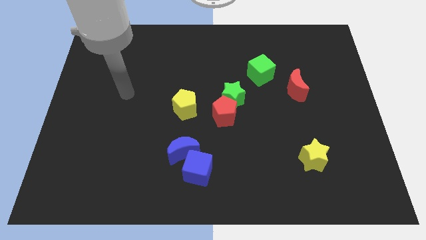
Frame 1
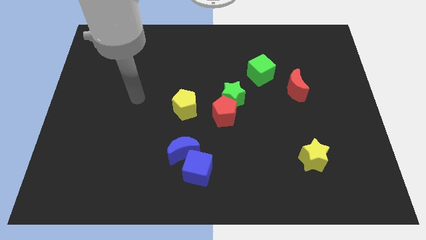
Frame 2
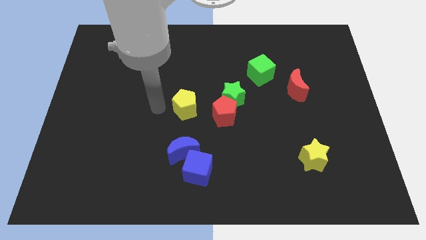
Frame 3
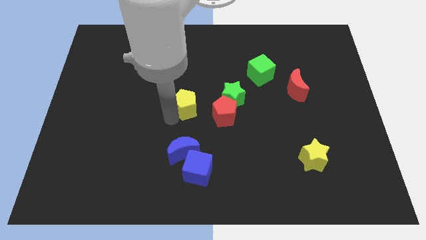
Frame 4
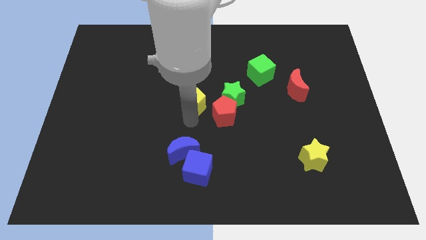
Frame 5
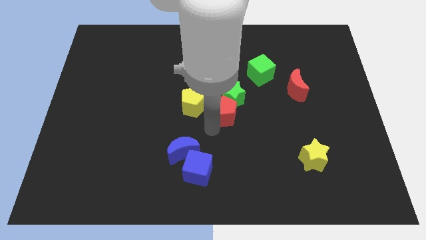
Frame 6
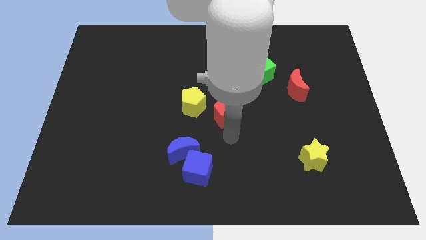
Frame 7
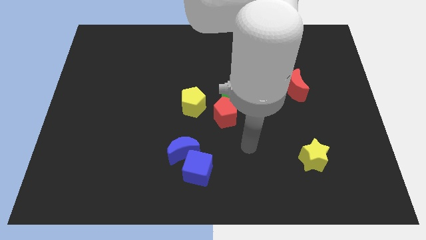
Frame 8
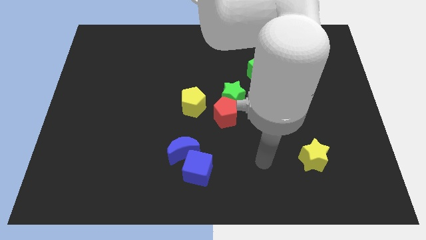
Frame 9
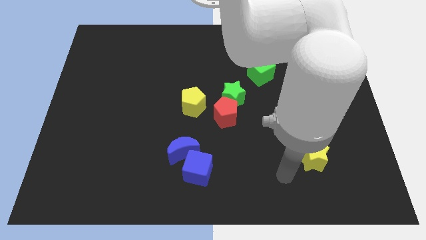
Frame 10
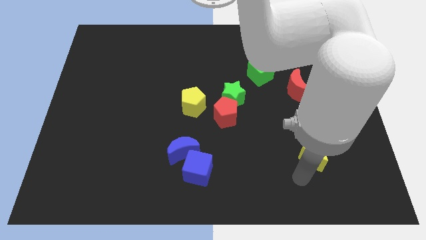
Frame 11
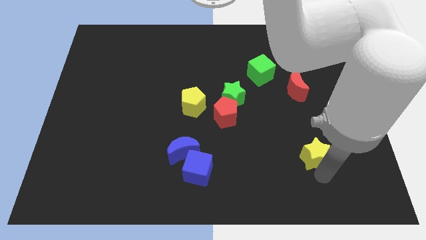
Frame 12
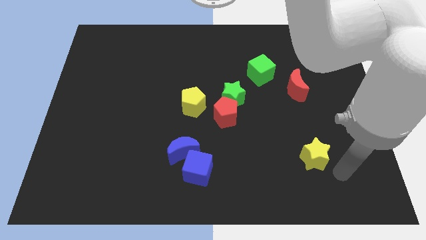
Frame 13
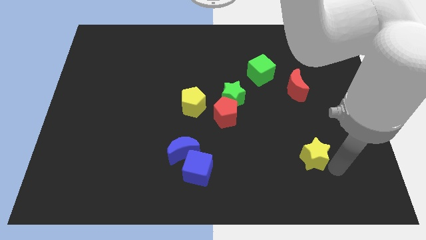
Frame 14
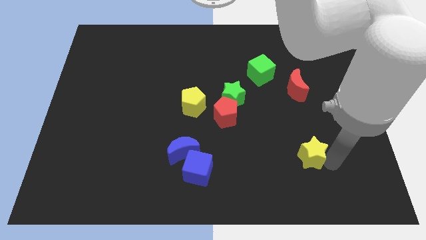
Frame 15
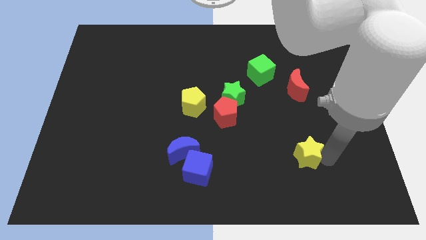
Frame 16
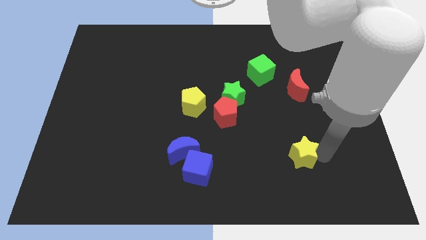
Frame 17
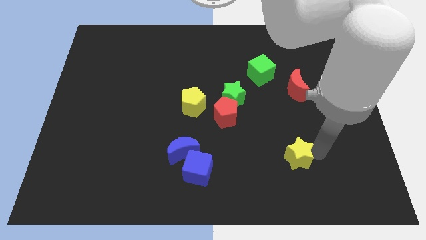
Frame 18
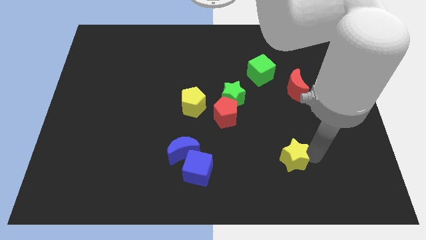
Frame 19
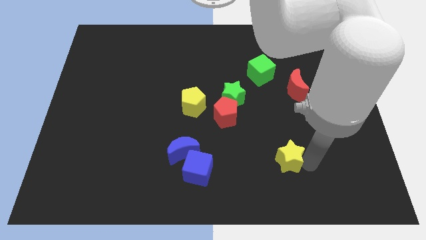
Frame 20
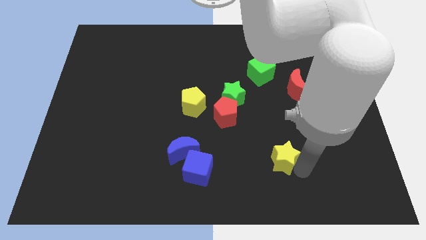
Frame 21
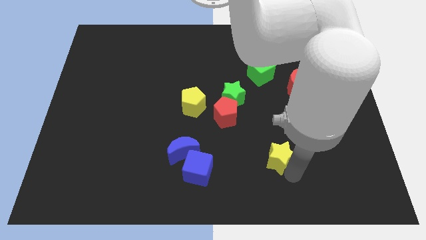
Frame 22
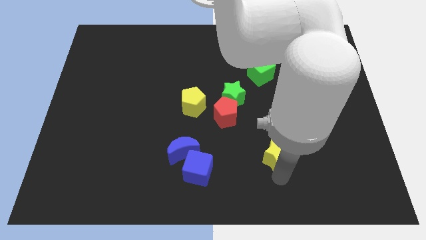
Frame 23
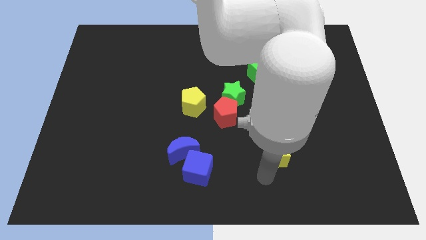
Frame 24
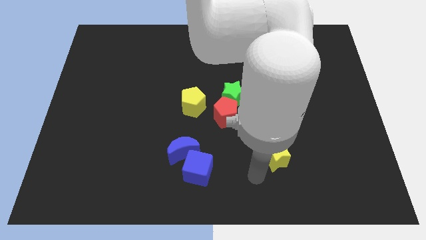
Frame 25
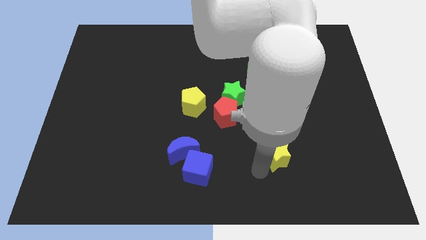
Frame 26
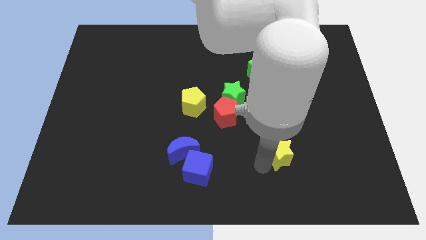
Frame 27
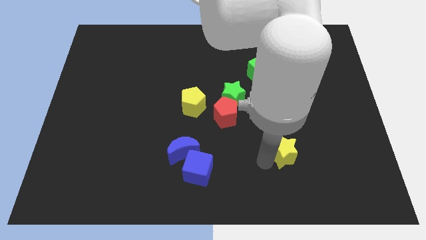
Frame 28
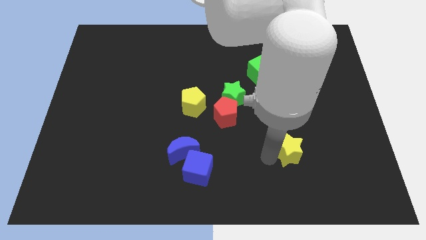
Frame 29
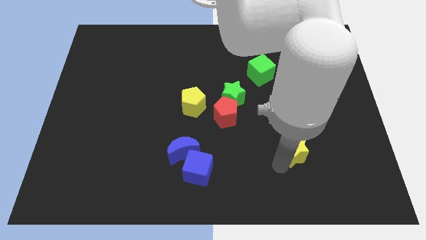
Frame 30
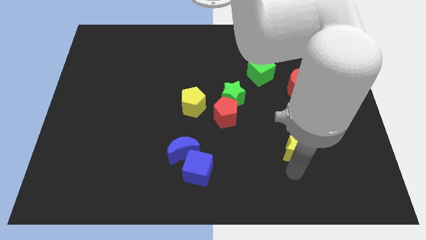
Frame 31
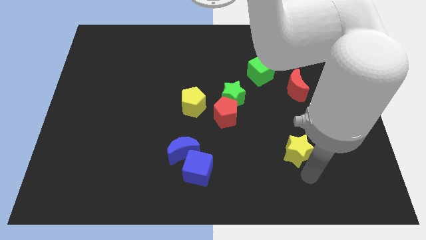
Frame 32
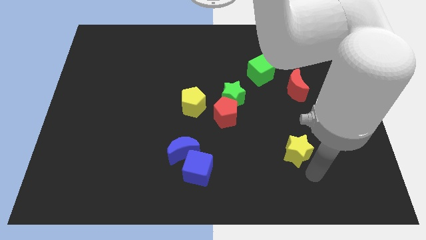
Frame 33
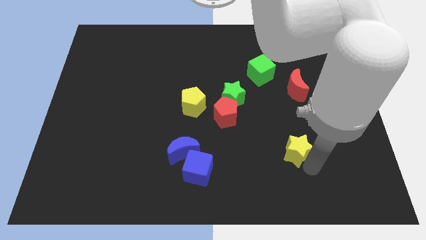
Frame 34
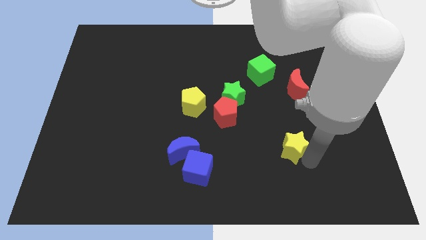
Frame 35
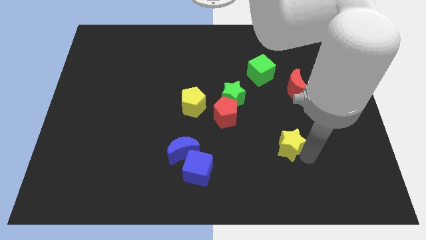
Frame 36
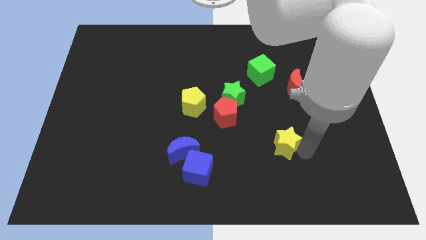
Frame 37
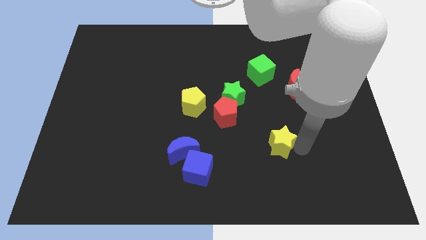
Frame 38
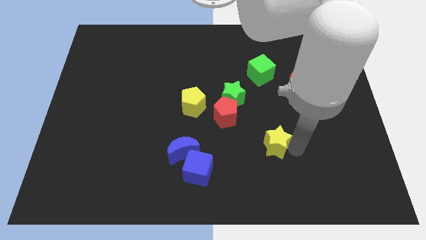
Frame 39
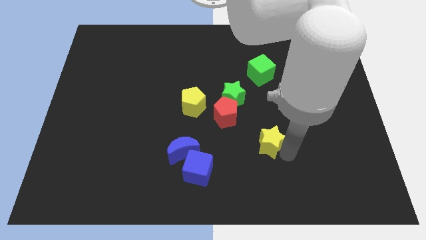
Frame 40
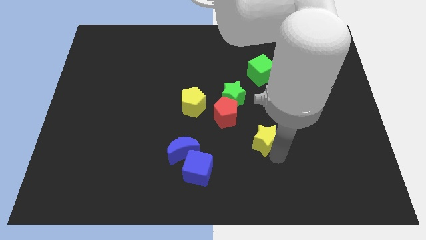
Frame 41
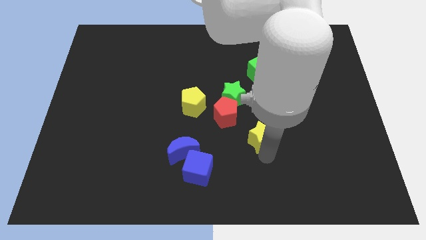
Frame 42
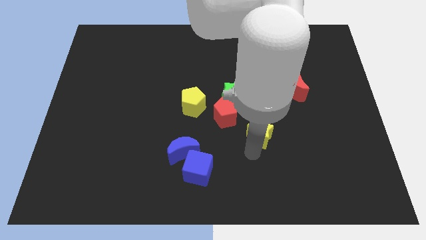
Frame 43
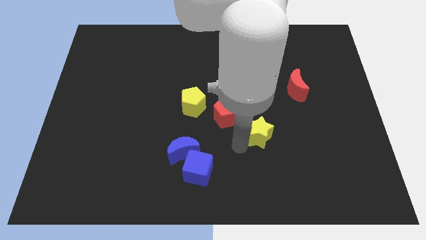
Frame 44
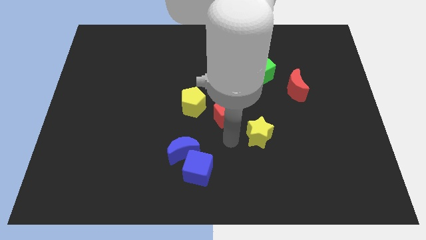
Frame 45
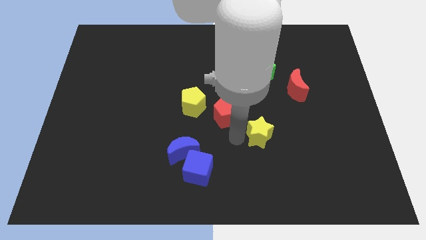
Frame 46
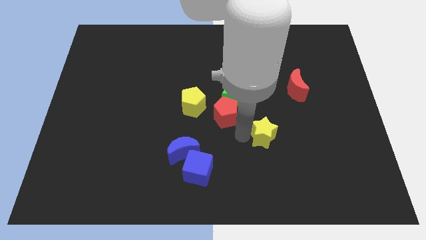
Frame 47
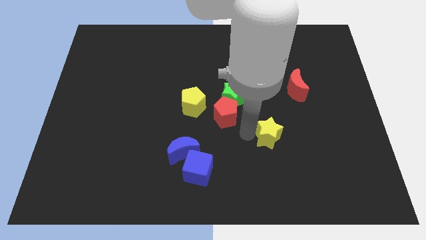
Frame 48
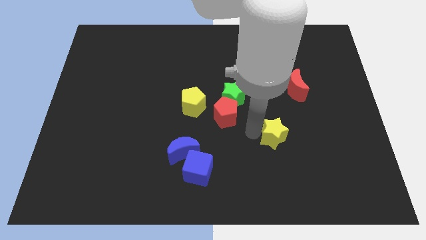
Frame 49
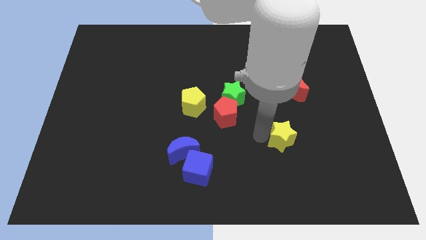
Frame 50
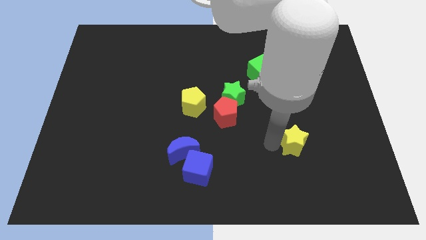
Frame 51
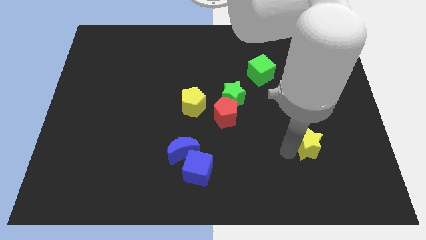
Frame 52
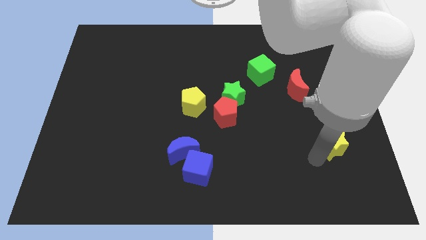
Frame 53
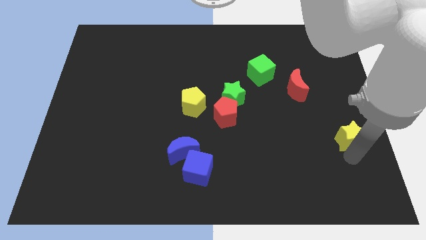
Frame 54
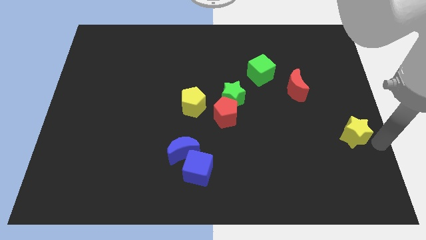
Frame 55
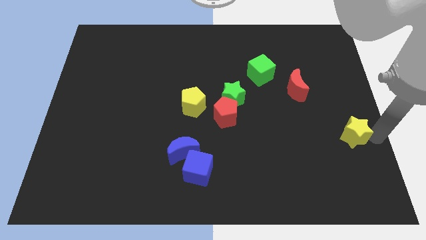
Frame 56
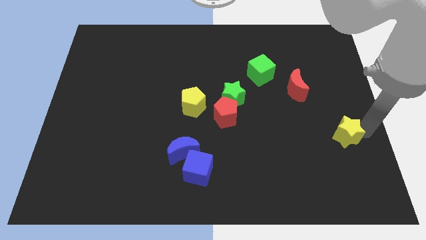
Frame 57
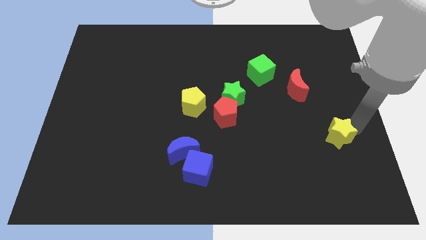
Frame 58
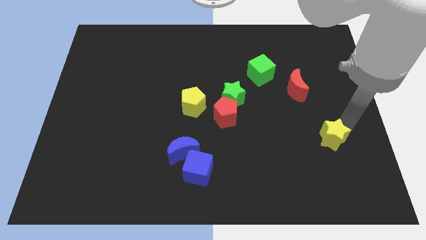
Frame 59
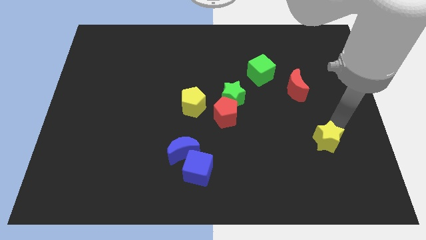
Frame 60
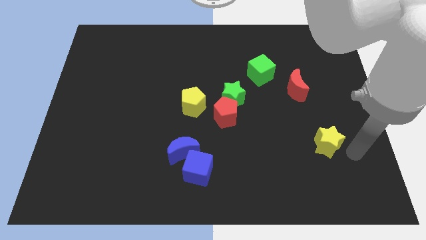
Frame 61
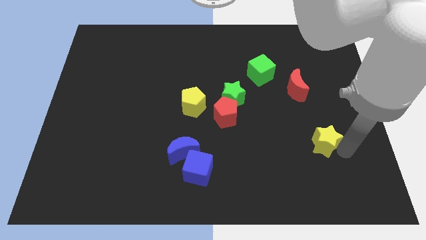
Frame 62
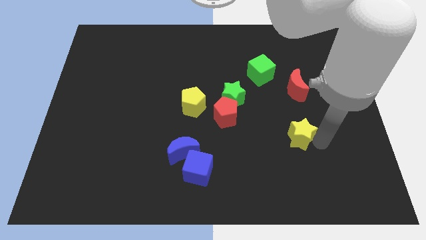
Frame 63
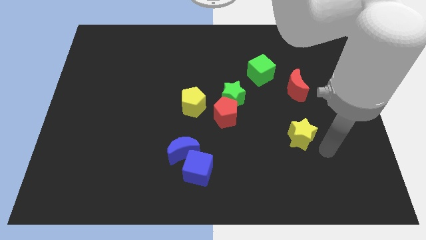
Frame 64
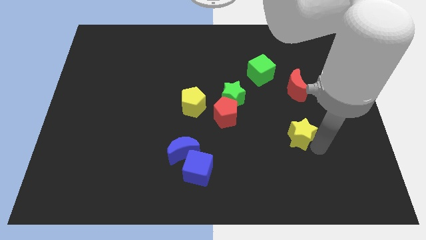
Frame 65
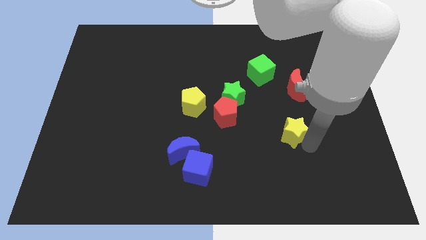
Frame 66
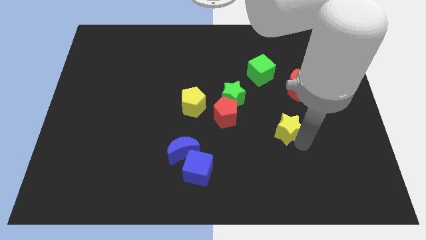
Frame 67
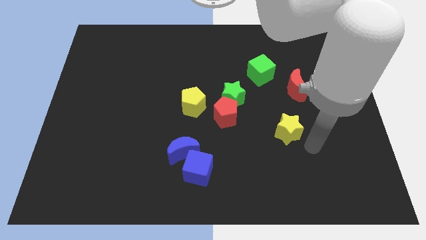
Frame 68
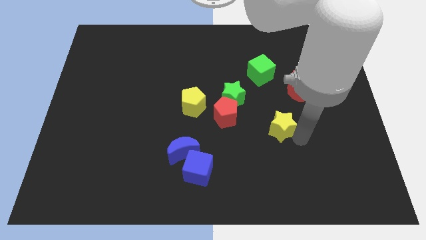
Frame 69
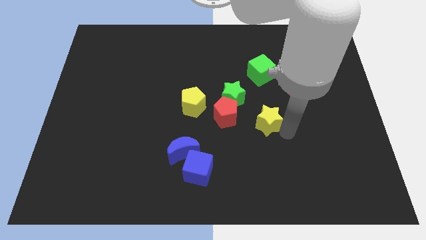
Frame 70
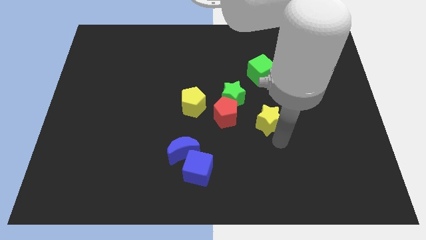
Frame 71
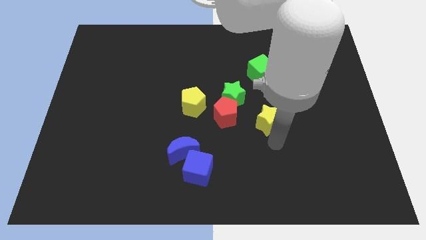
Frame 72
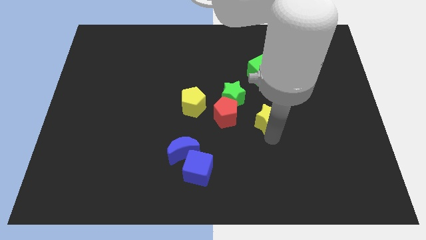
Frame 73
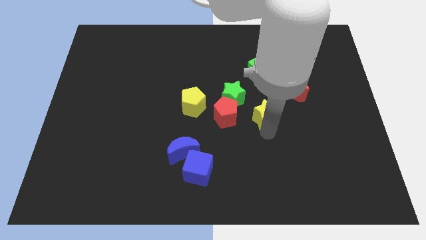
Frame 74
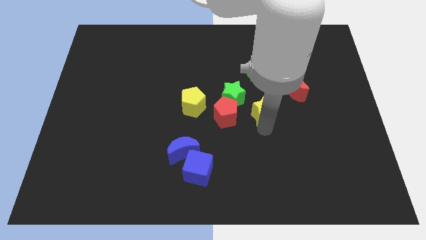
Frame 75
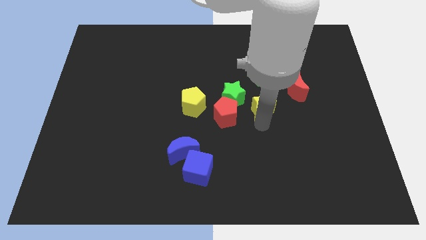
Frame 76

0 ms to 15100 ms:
push the yellow star to the top right of the red pentagon
